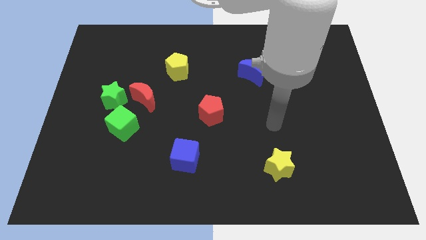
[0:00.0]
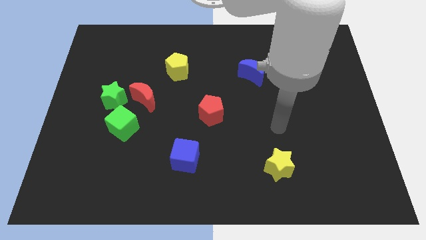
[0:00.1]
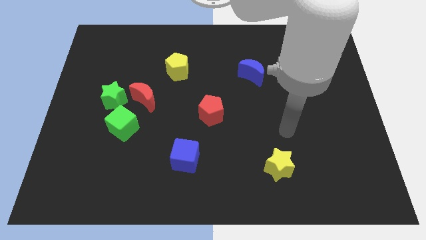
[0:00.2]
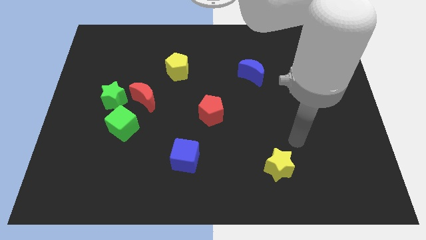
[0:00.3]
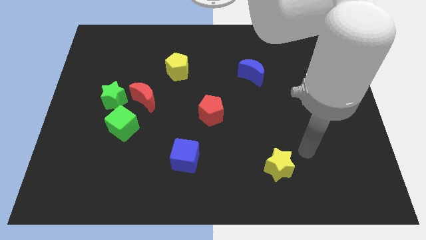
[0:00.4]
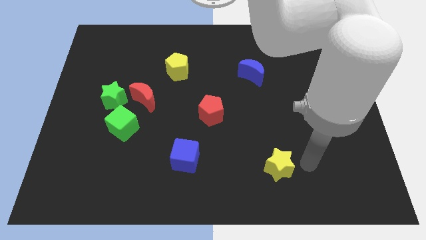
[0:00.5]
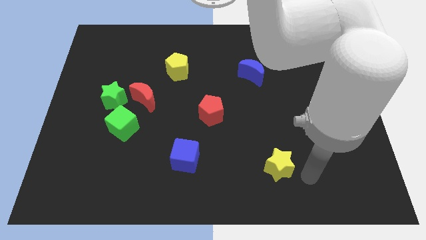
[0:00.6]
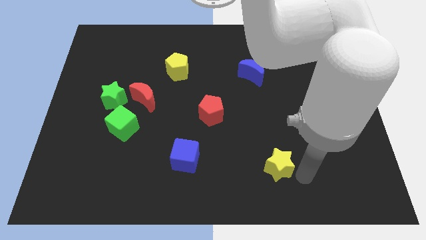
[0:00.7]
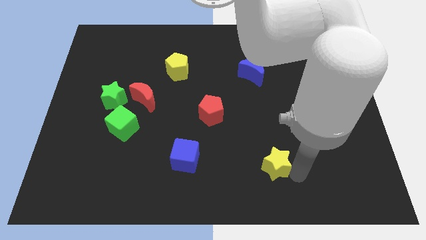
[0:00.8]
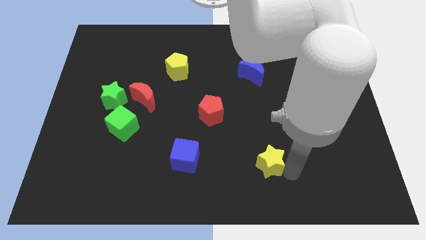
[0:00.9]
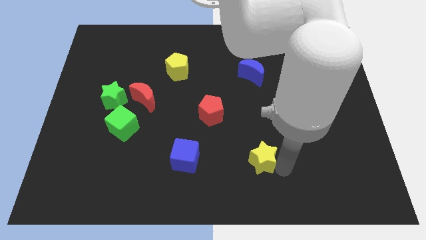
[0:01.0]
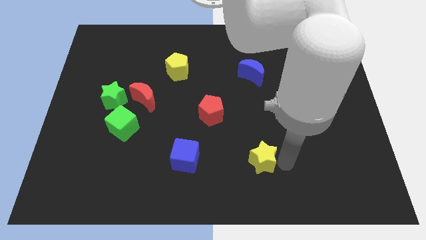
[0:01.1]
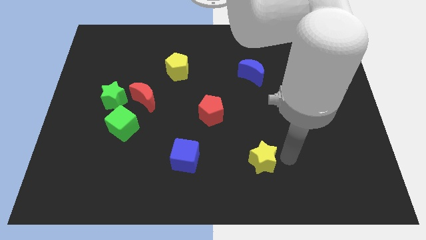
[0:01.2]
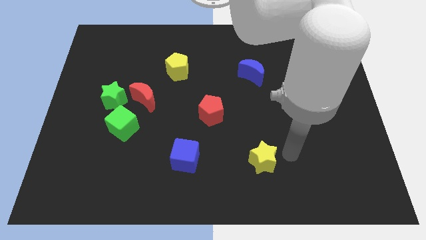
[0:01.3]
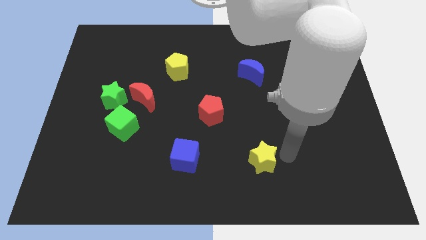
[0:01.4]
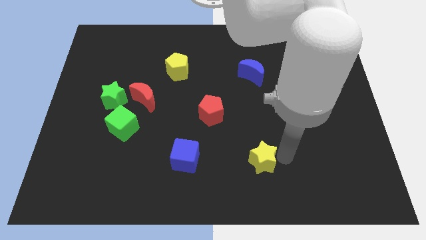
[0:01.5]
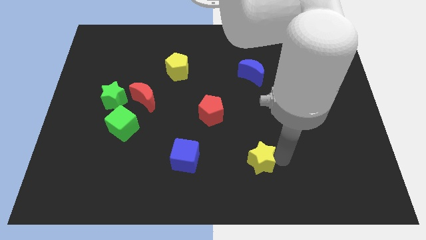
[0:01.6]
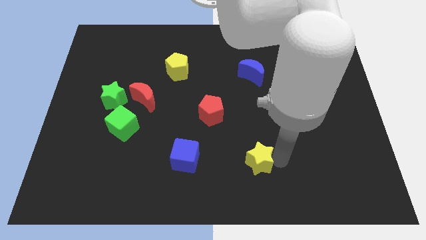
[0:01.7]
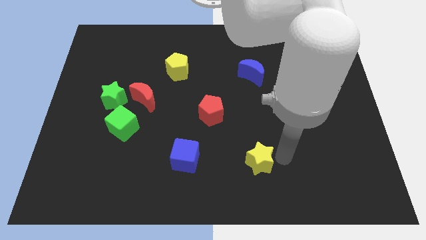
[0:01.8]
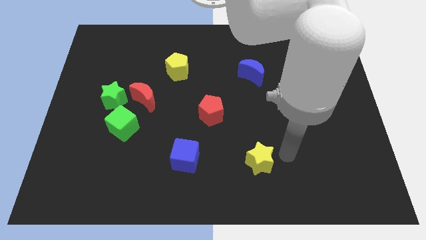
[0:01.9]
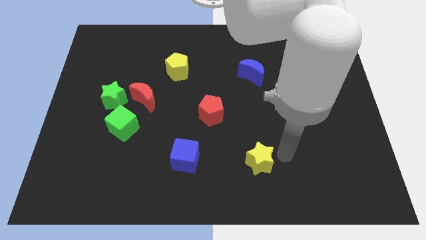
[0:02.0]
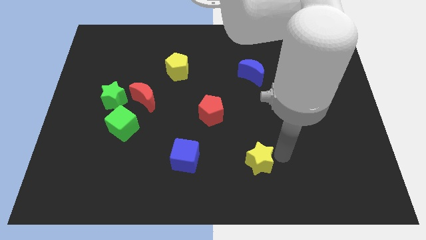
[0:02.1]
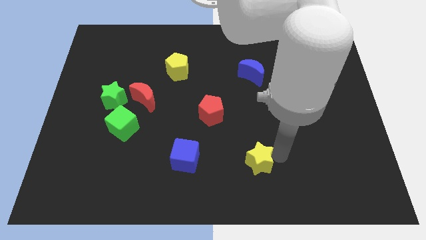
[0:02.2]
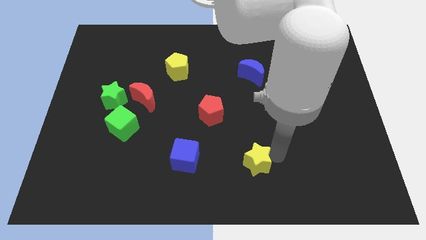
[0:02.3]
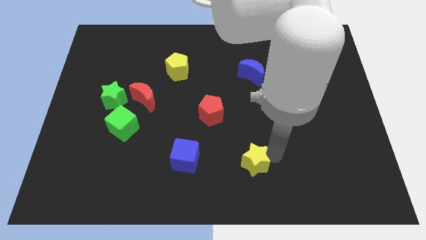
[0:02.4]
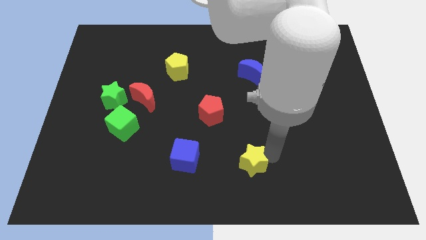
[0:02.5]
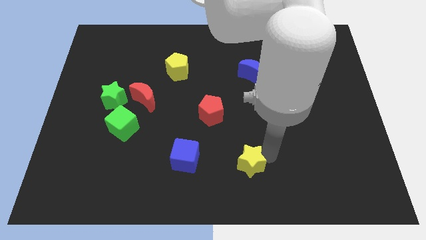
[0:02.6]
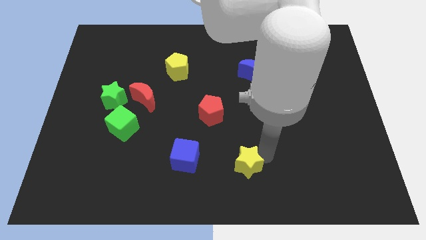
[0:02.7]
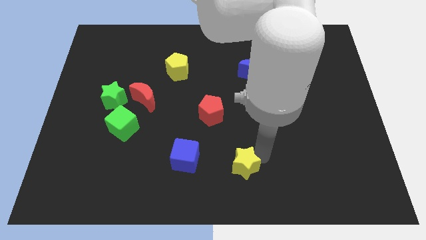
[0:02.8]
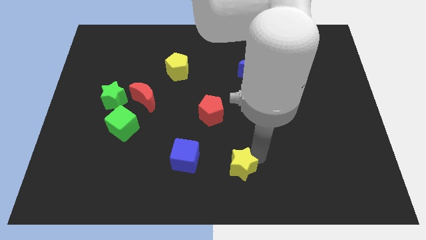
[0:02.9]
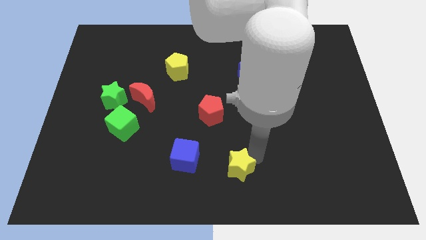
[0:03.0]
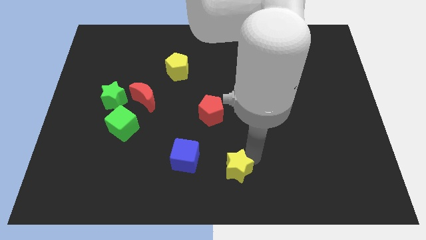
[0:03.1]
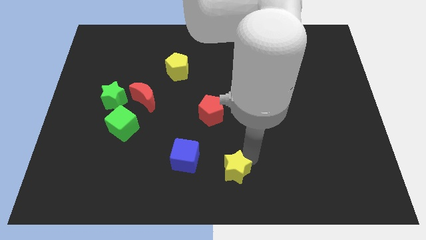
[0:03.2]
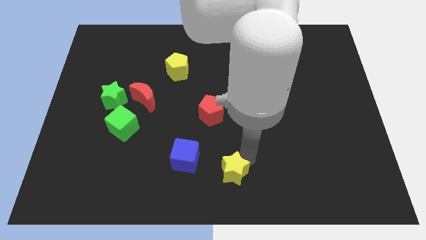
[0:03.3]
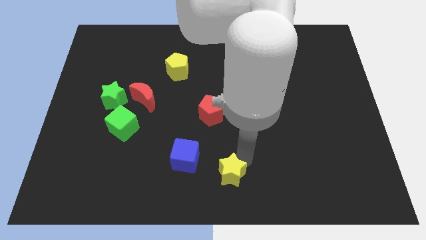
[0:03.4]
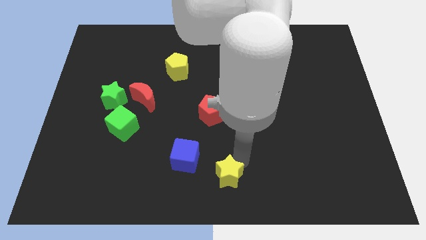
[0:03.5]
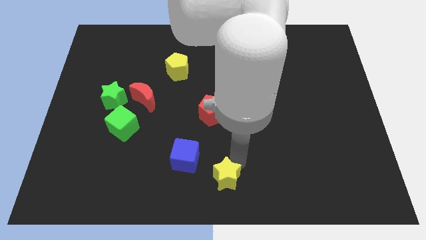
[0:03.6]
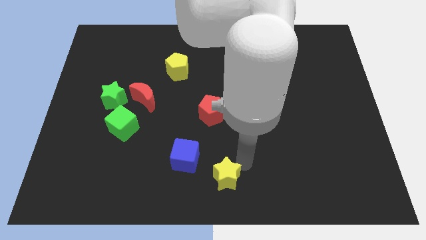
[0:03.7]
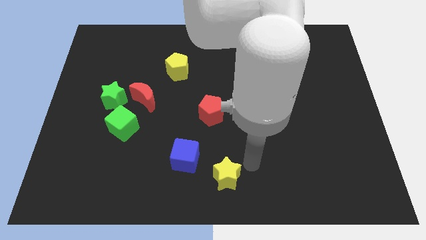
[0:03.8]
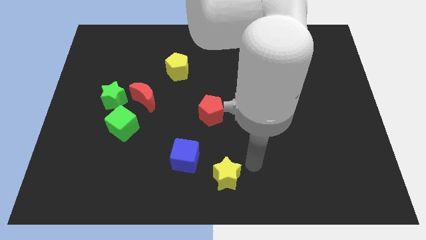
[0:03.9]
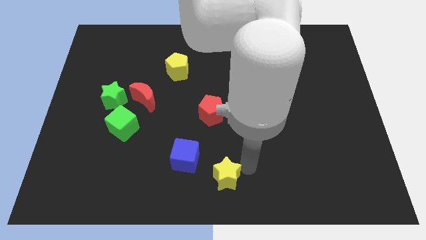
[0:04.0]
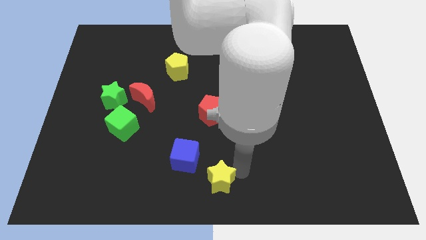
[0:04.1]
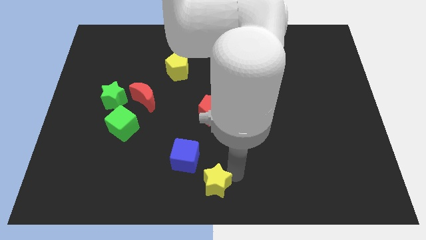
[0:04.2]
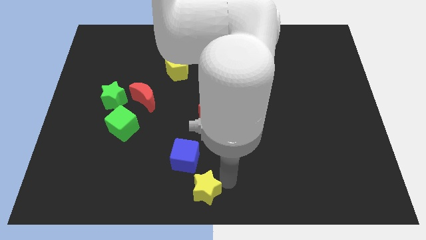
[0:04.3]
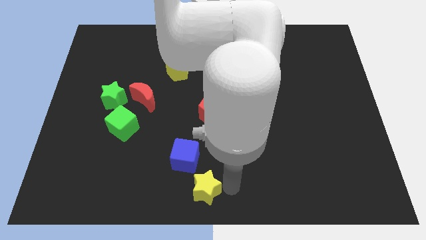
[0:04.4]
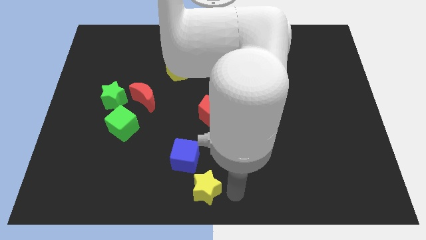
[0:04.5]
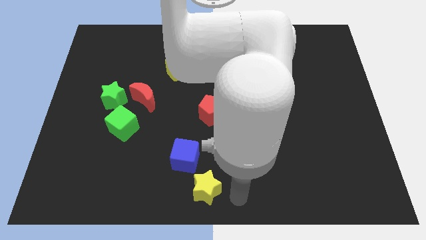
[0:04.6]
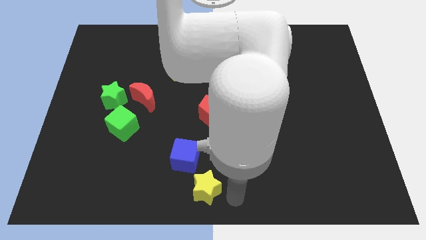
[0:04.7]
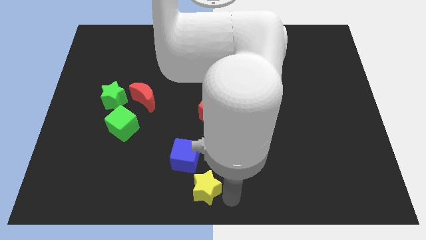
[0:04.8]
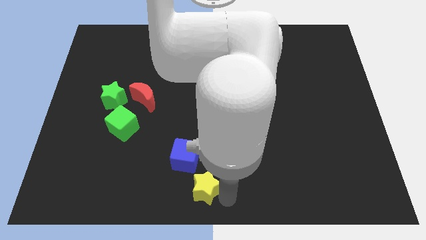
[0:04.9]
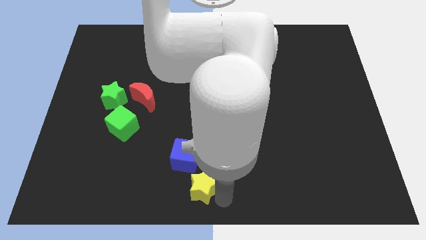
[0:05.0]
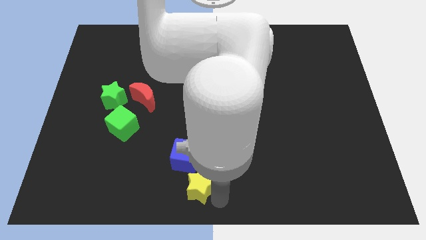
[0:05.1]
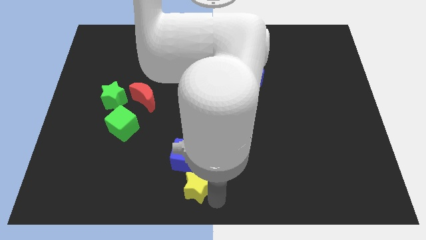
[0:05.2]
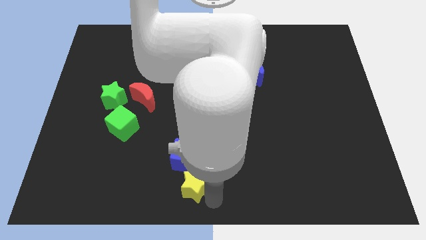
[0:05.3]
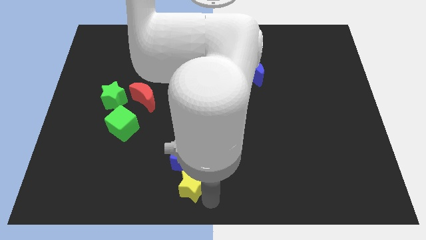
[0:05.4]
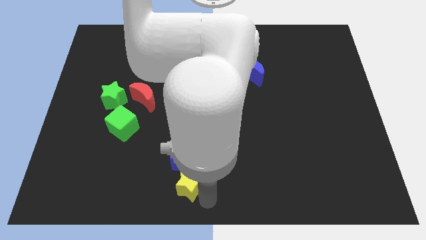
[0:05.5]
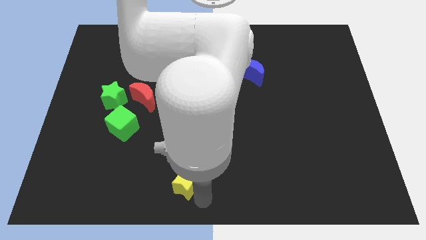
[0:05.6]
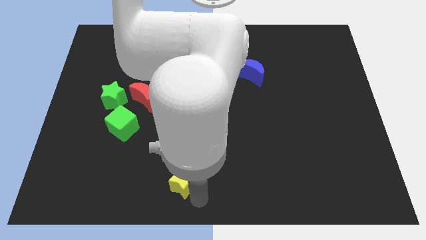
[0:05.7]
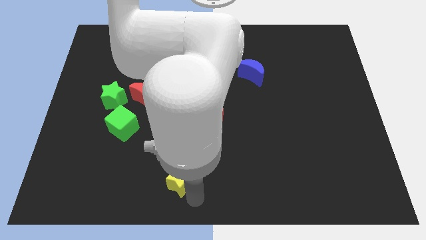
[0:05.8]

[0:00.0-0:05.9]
push the yellow star left

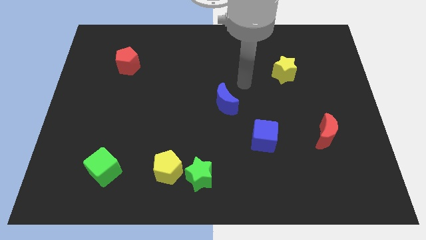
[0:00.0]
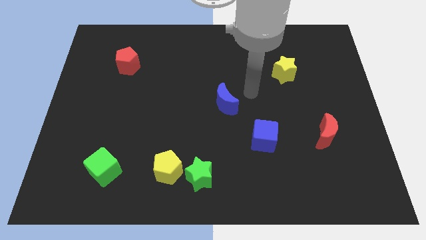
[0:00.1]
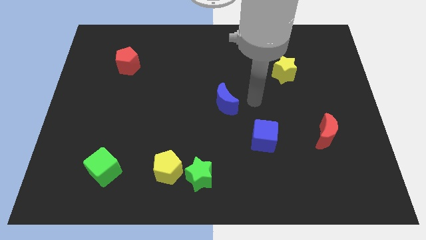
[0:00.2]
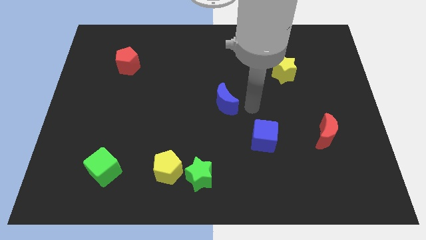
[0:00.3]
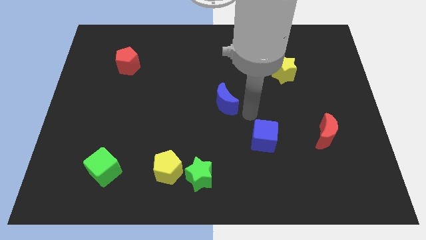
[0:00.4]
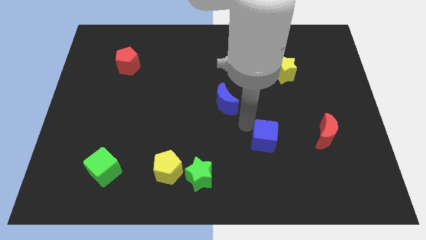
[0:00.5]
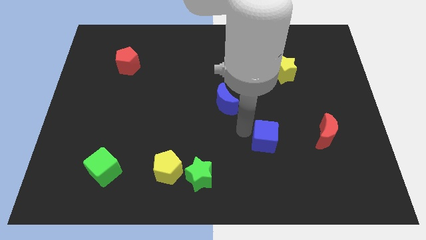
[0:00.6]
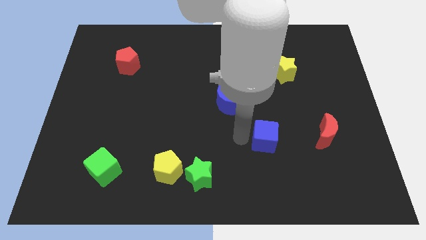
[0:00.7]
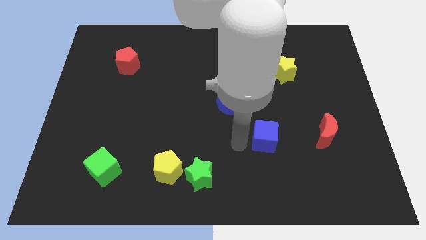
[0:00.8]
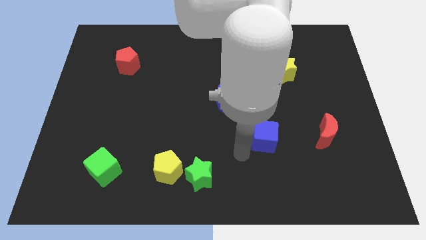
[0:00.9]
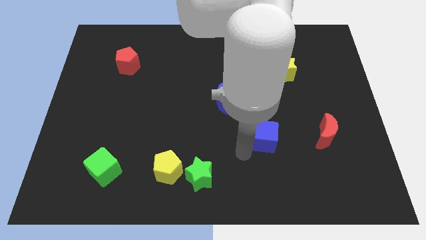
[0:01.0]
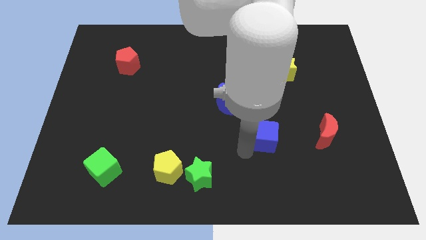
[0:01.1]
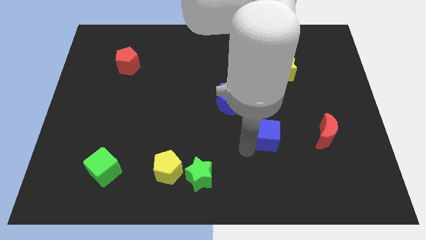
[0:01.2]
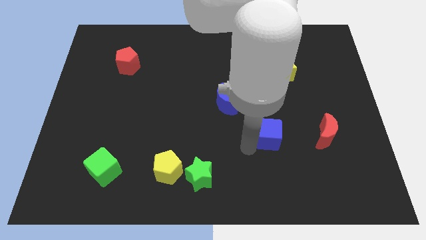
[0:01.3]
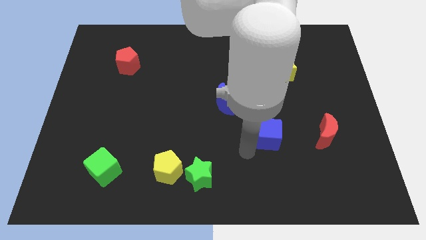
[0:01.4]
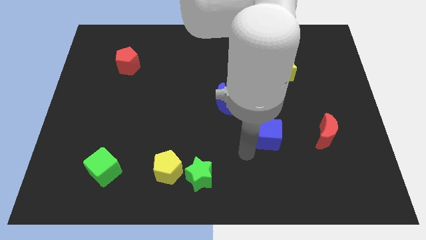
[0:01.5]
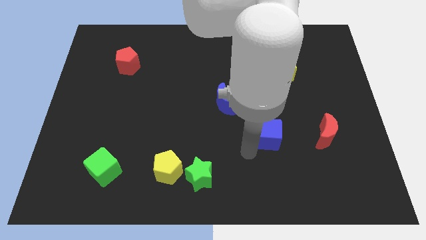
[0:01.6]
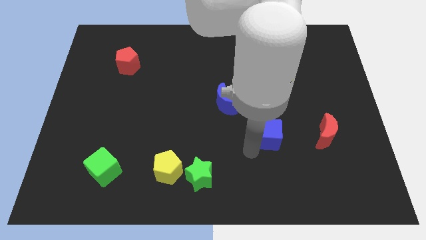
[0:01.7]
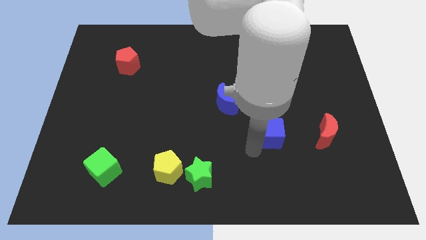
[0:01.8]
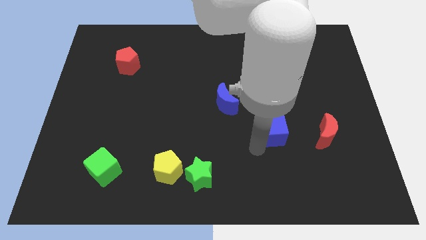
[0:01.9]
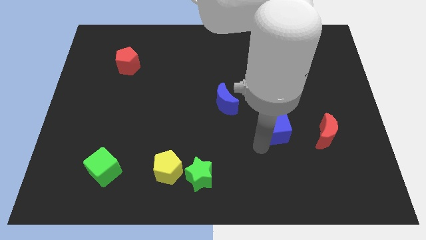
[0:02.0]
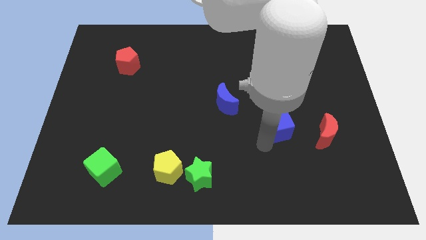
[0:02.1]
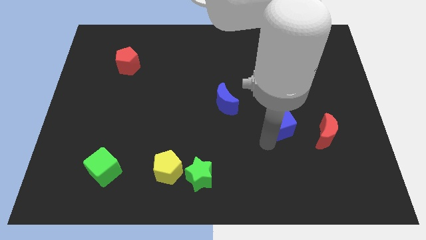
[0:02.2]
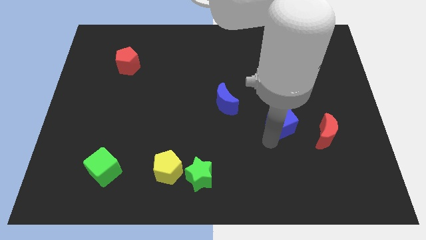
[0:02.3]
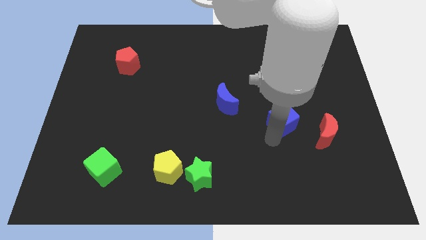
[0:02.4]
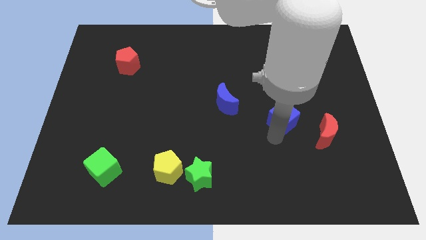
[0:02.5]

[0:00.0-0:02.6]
slightly slide the blue cube up and to the right
